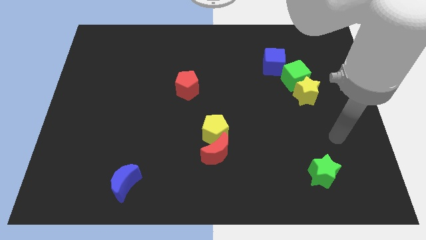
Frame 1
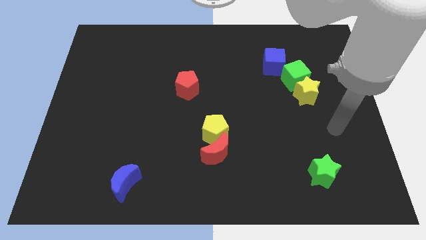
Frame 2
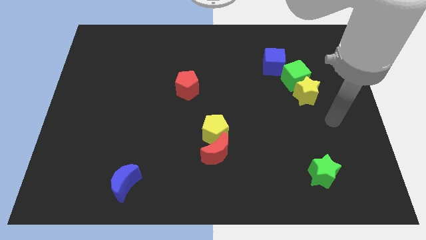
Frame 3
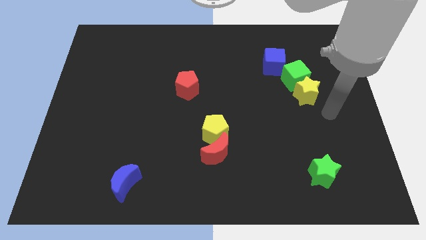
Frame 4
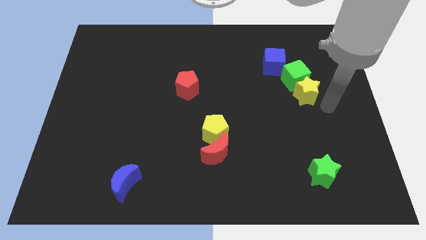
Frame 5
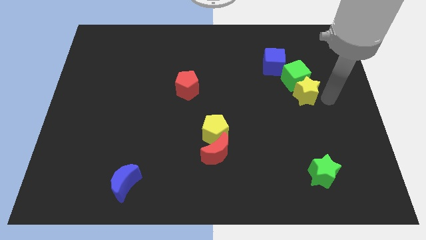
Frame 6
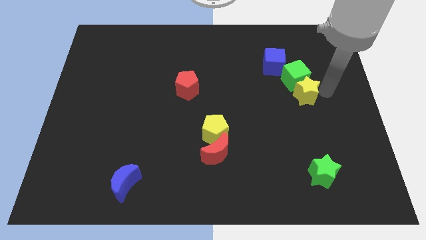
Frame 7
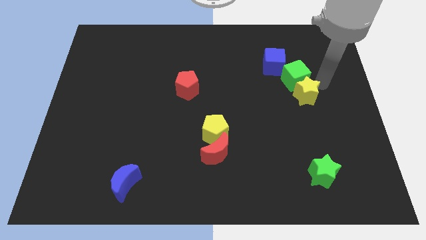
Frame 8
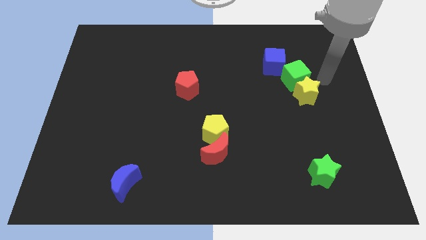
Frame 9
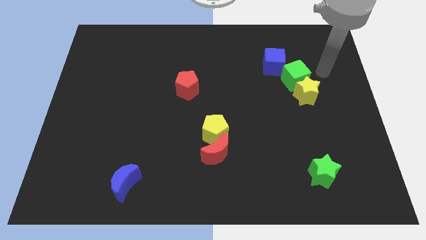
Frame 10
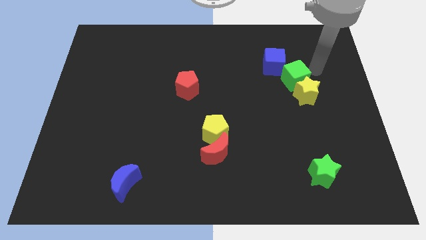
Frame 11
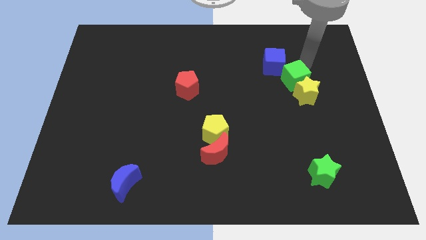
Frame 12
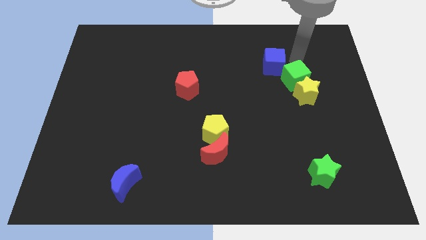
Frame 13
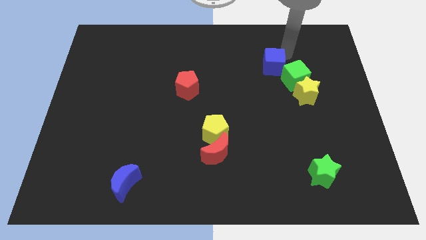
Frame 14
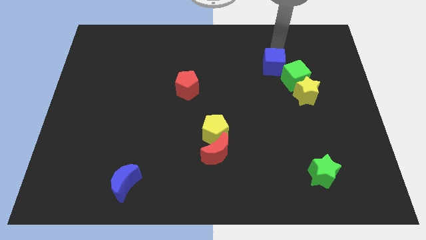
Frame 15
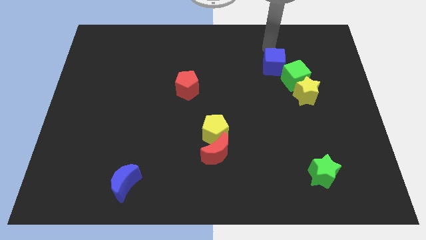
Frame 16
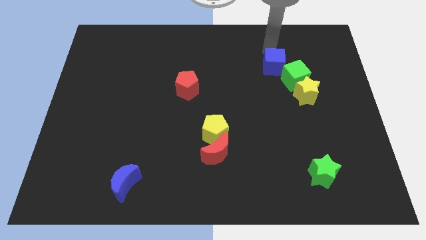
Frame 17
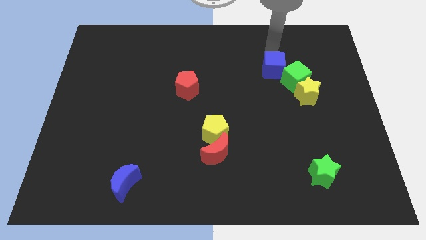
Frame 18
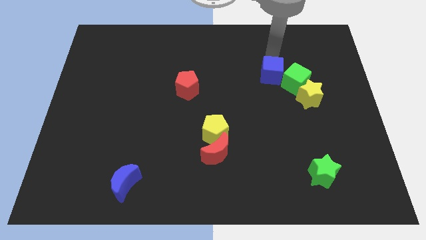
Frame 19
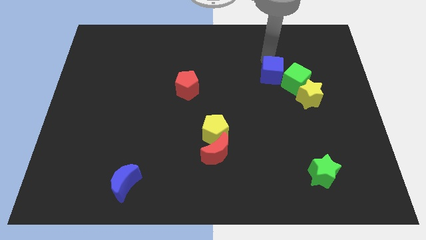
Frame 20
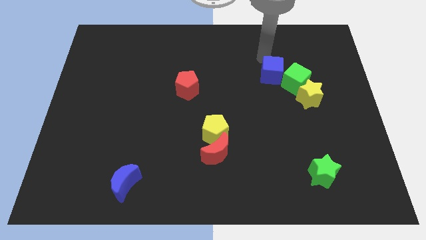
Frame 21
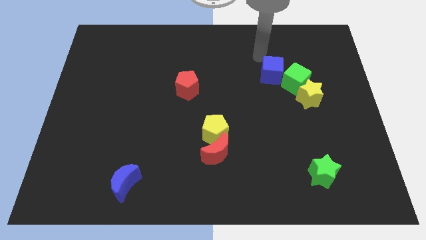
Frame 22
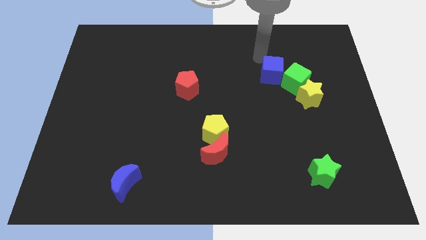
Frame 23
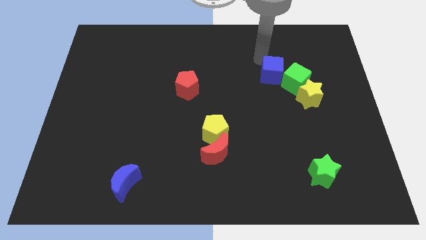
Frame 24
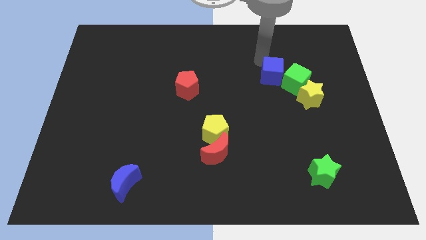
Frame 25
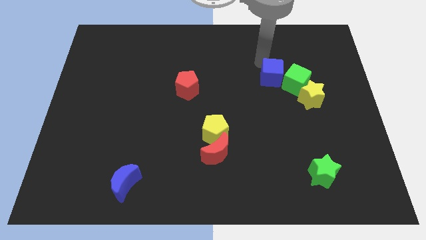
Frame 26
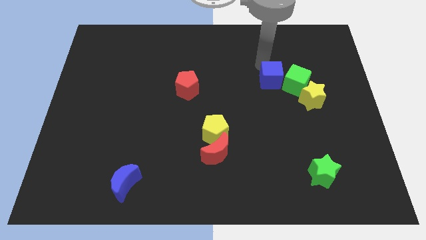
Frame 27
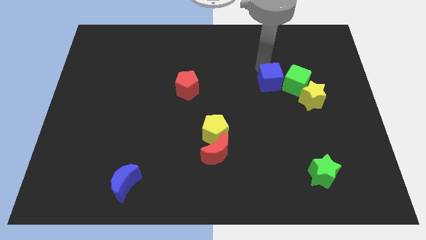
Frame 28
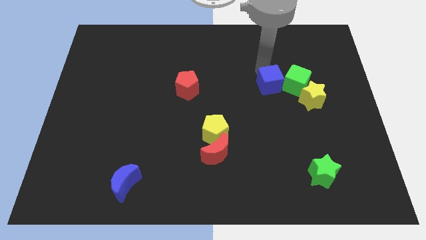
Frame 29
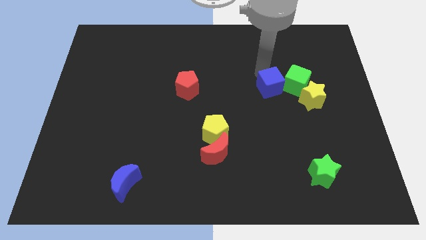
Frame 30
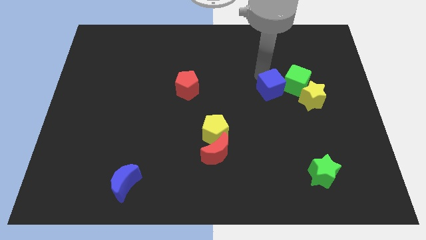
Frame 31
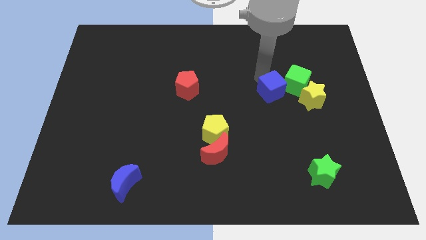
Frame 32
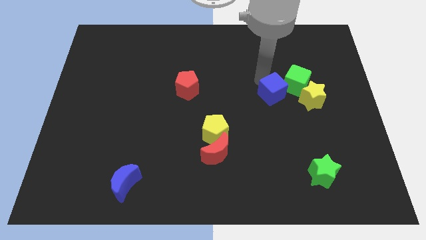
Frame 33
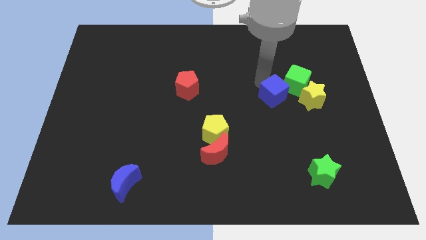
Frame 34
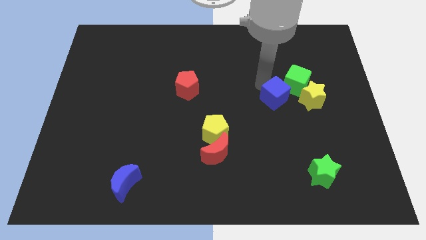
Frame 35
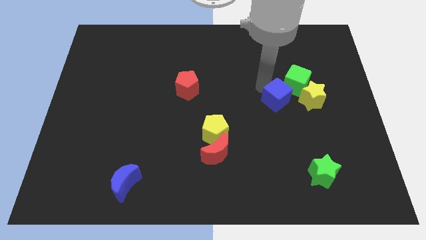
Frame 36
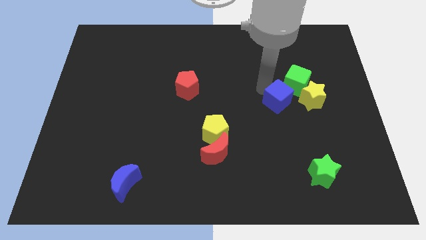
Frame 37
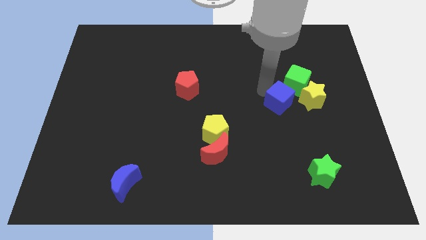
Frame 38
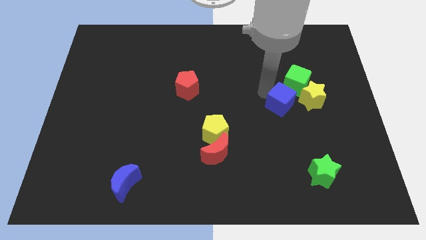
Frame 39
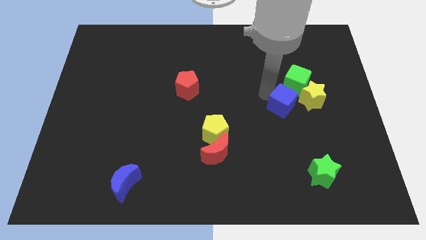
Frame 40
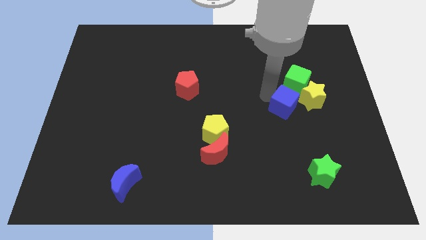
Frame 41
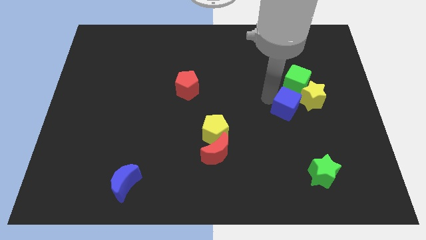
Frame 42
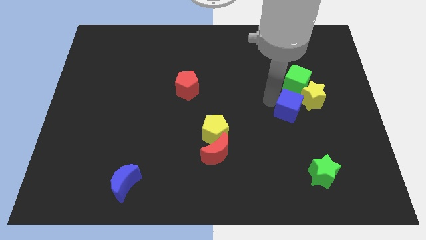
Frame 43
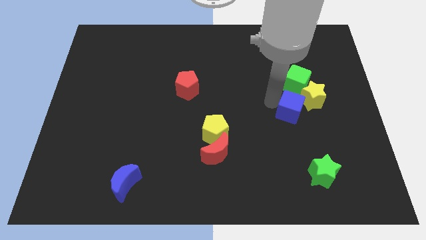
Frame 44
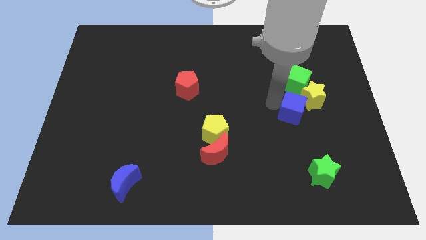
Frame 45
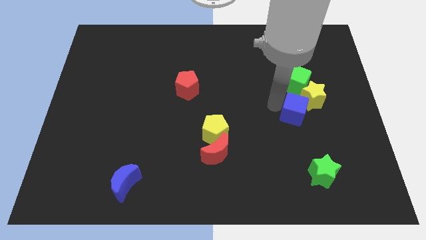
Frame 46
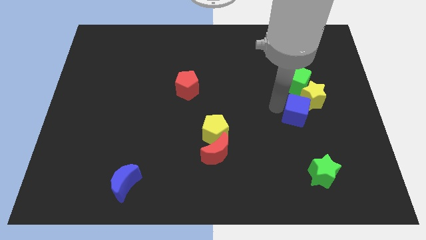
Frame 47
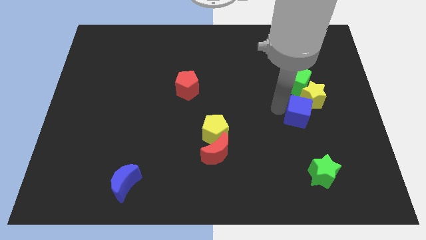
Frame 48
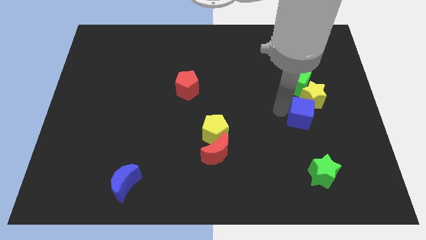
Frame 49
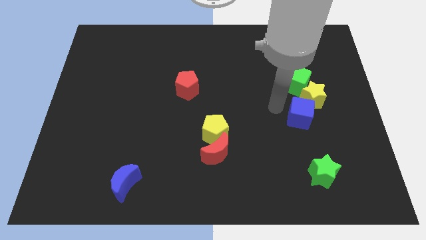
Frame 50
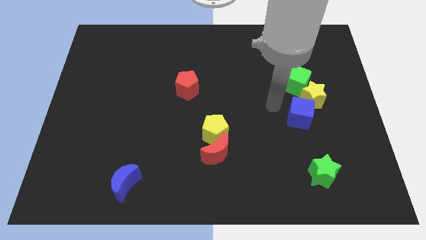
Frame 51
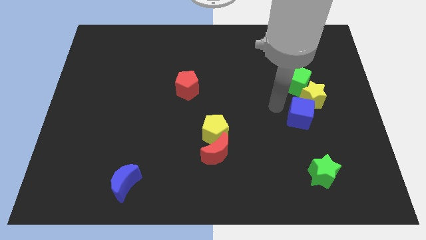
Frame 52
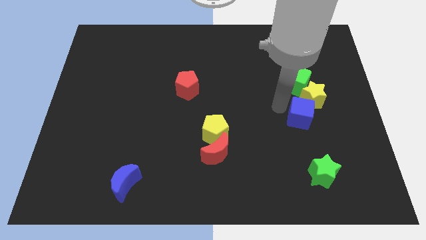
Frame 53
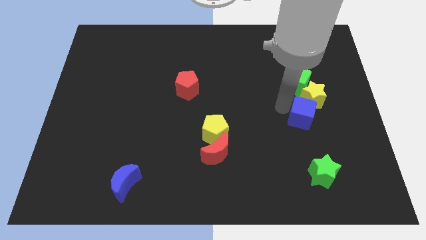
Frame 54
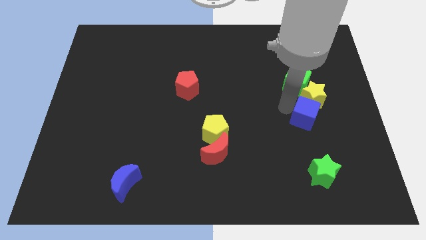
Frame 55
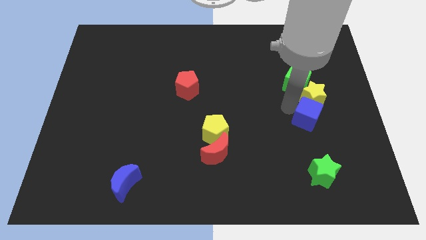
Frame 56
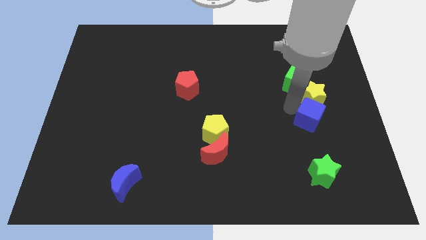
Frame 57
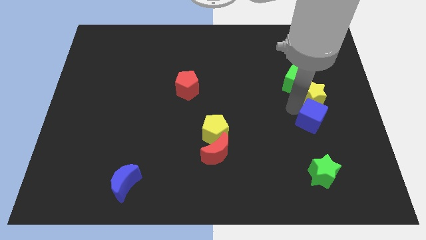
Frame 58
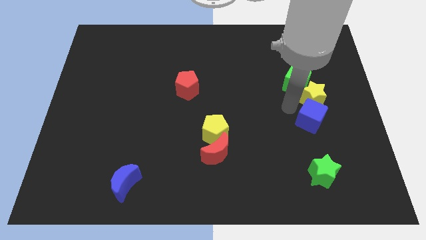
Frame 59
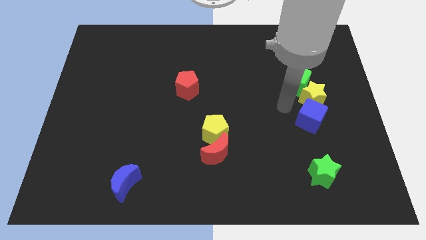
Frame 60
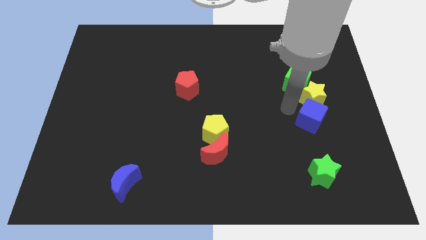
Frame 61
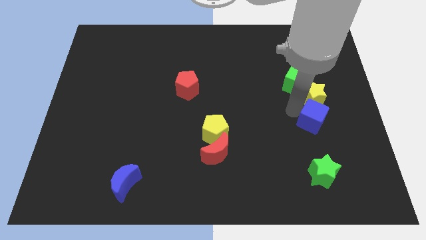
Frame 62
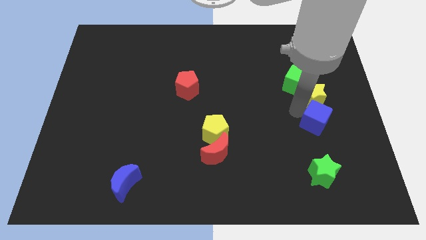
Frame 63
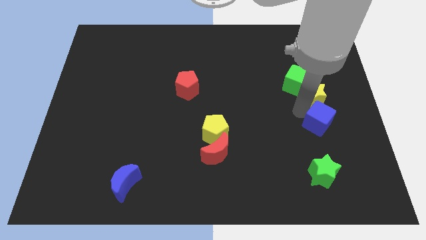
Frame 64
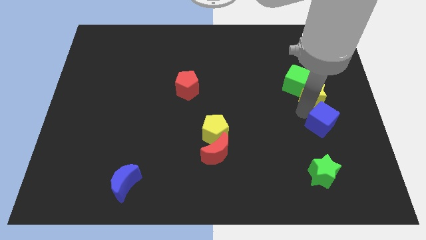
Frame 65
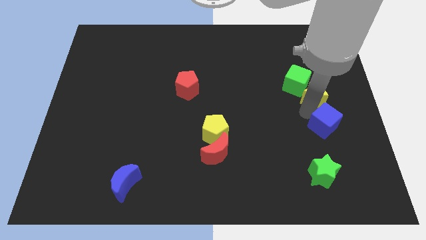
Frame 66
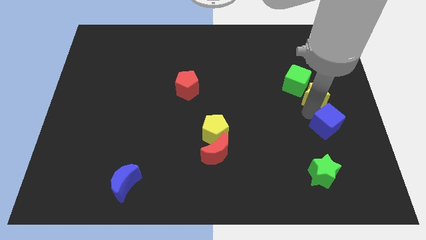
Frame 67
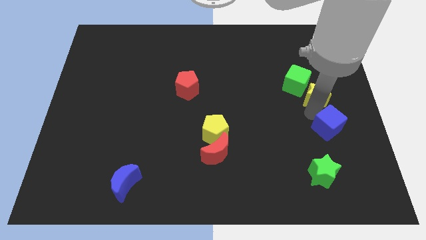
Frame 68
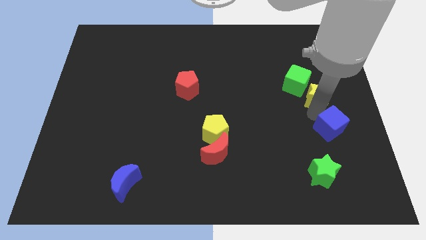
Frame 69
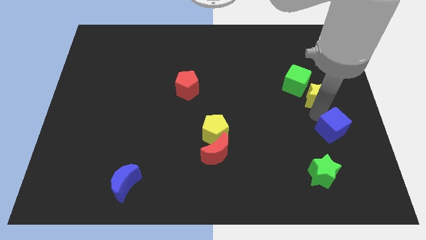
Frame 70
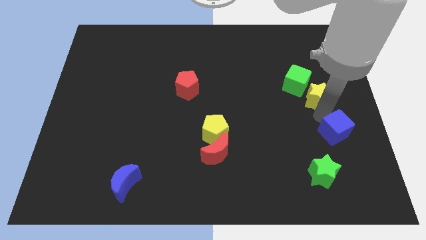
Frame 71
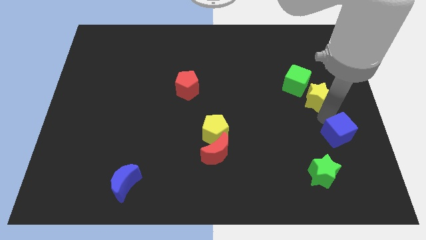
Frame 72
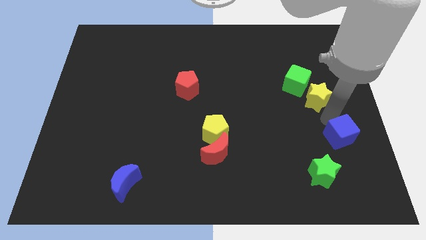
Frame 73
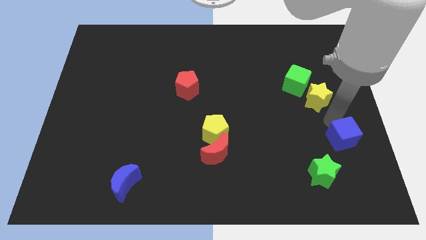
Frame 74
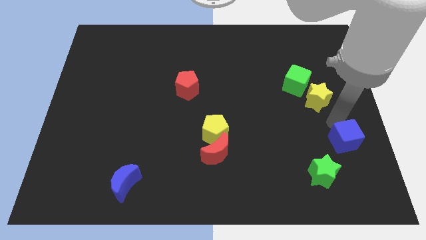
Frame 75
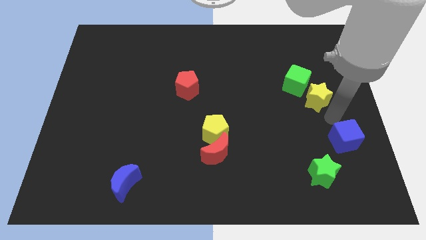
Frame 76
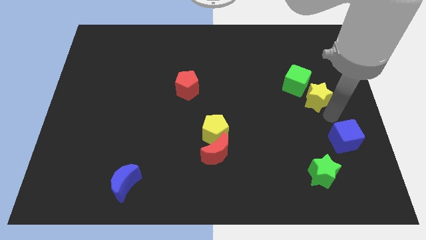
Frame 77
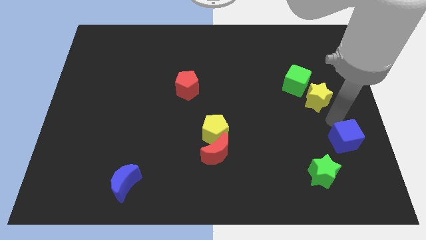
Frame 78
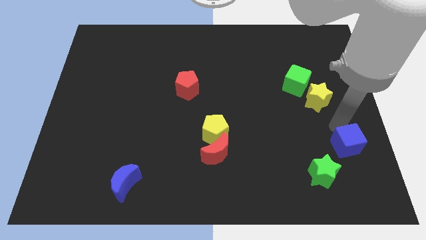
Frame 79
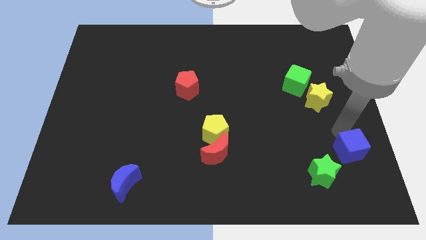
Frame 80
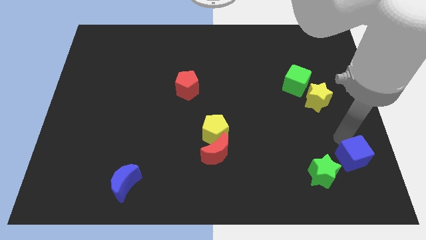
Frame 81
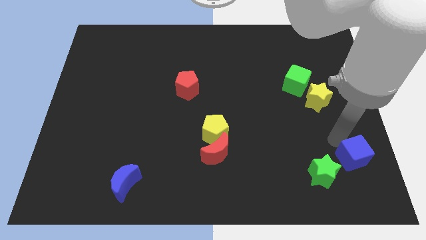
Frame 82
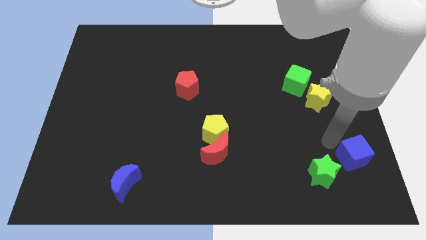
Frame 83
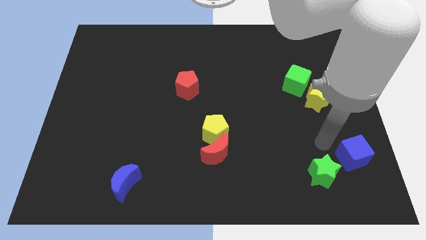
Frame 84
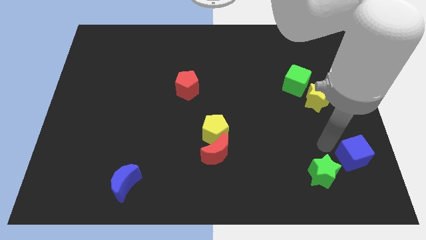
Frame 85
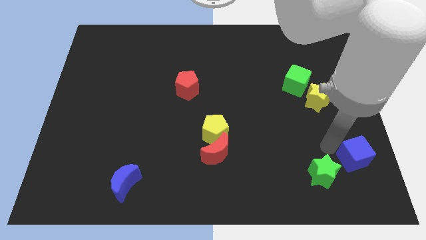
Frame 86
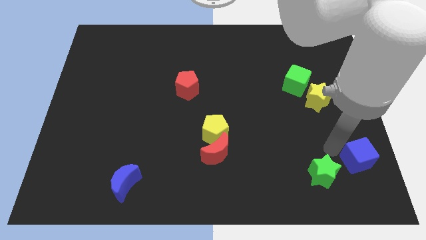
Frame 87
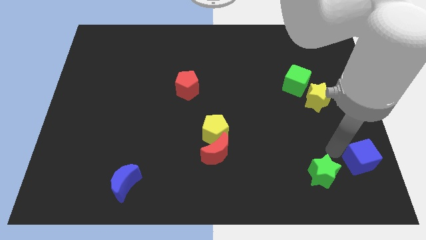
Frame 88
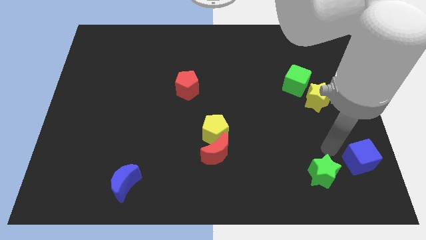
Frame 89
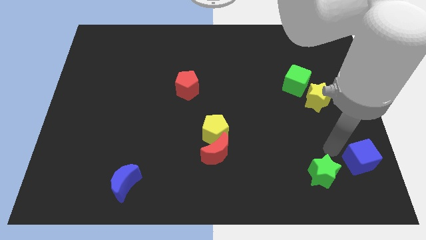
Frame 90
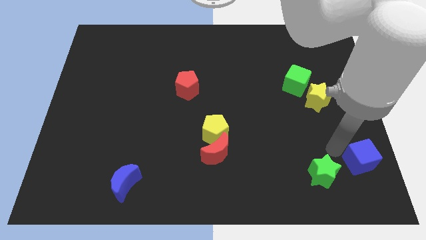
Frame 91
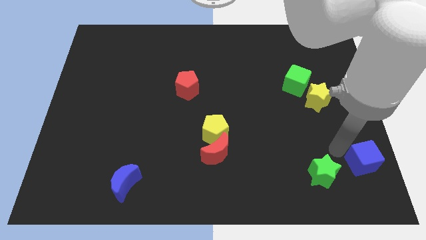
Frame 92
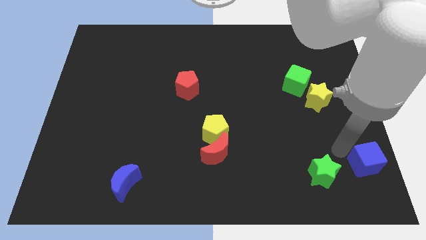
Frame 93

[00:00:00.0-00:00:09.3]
push the blue cube to the bottom right corner
